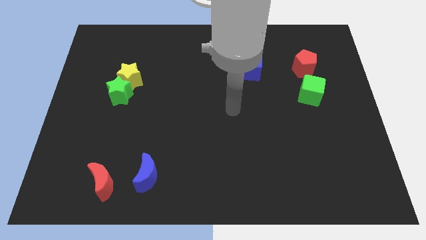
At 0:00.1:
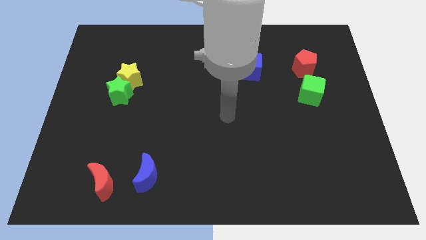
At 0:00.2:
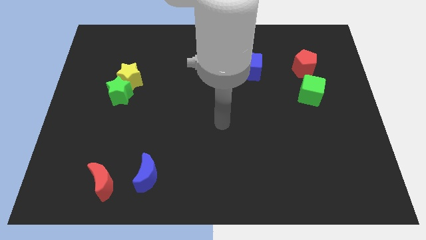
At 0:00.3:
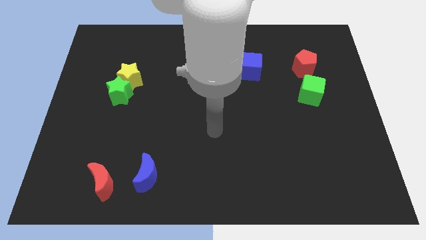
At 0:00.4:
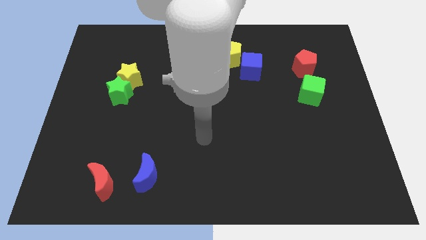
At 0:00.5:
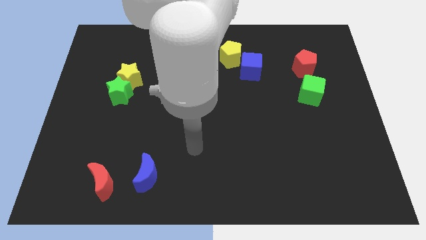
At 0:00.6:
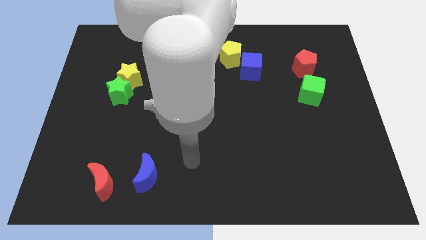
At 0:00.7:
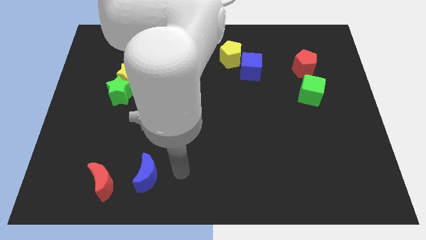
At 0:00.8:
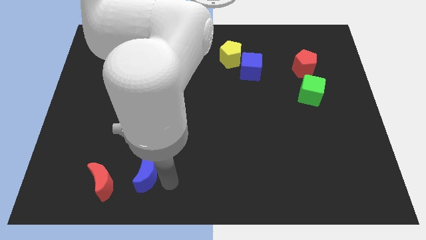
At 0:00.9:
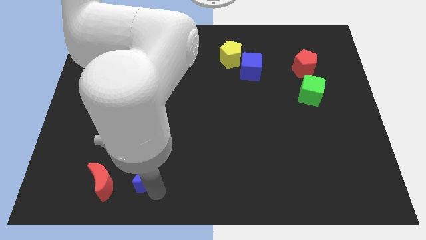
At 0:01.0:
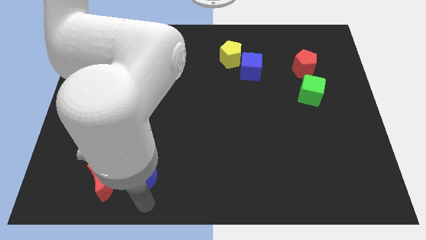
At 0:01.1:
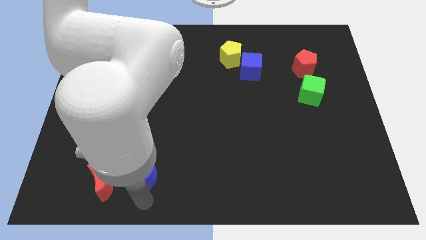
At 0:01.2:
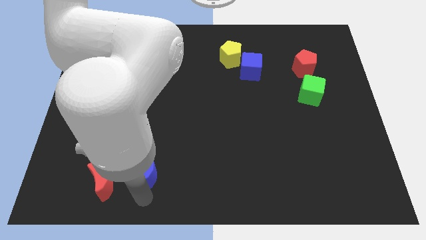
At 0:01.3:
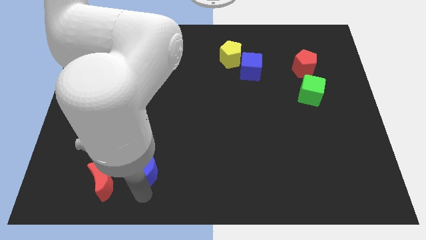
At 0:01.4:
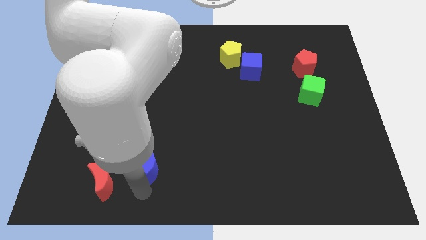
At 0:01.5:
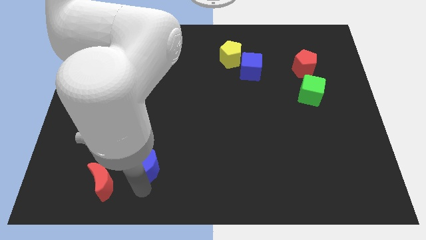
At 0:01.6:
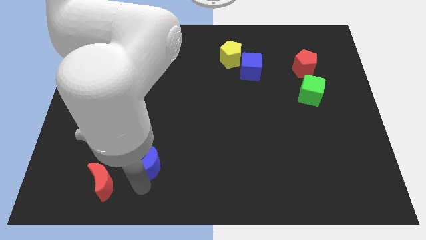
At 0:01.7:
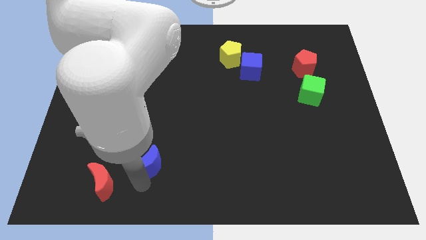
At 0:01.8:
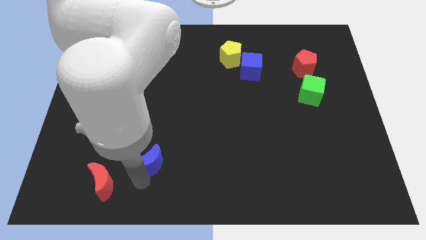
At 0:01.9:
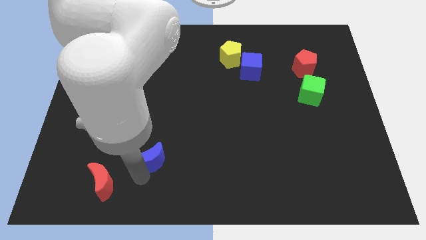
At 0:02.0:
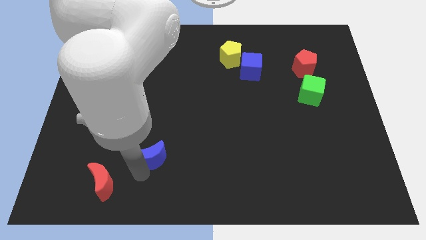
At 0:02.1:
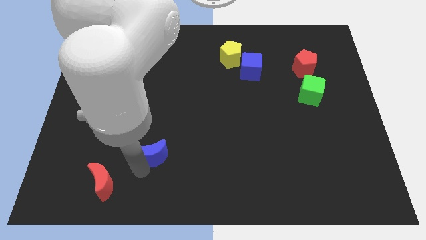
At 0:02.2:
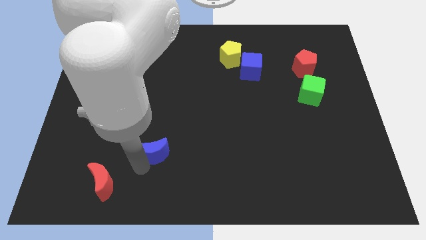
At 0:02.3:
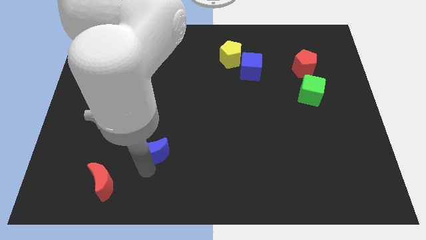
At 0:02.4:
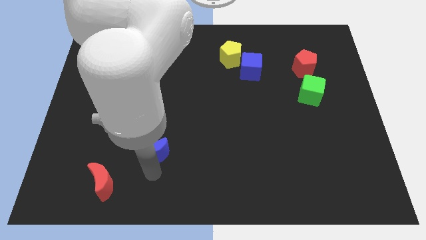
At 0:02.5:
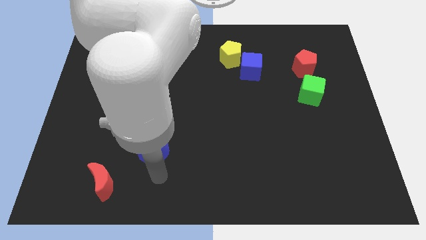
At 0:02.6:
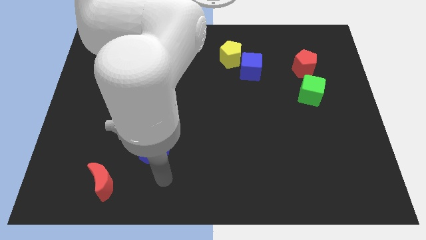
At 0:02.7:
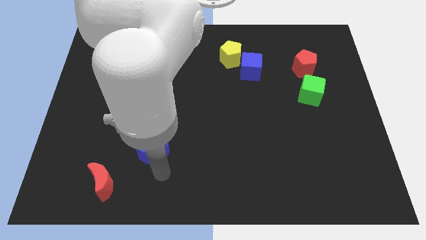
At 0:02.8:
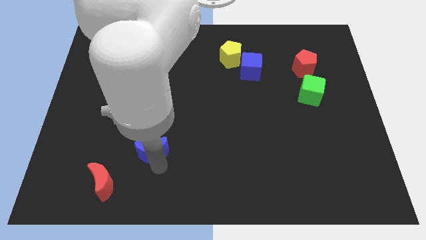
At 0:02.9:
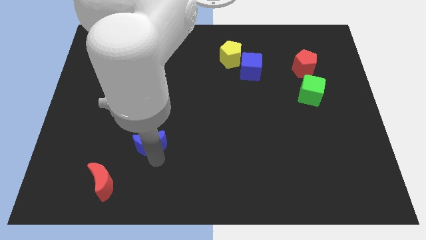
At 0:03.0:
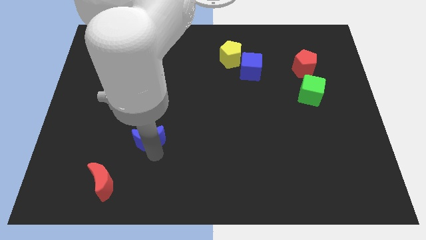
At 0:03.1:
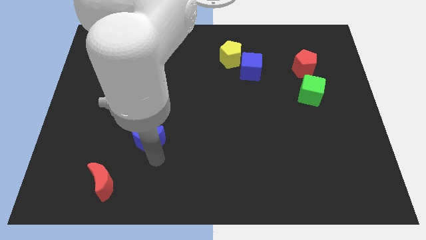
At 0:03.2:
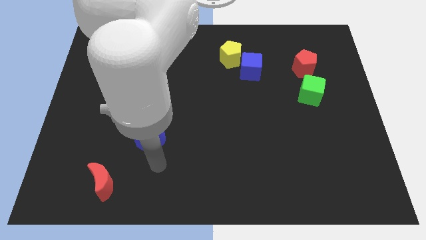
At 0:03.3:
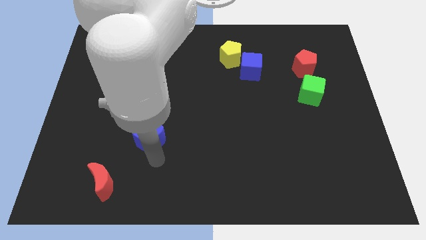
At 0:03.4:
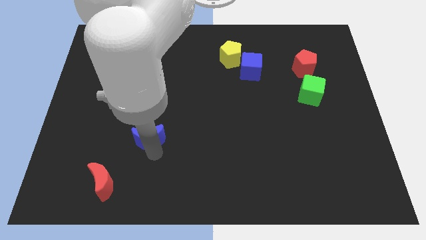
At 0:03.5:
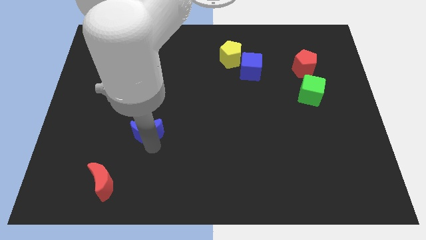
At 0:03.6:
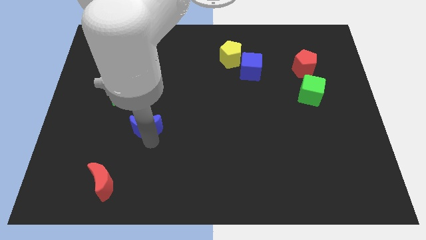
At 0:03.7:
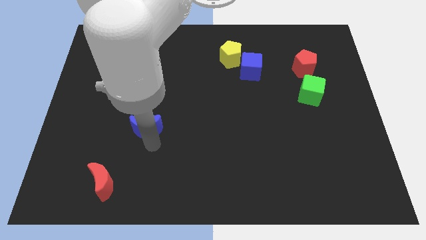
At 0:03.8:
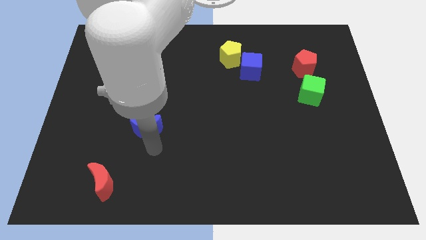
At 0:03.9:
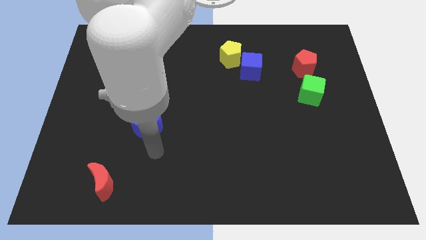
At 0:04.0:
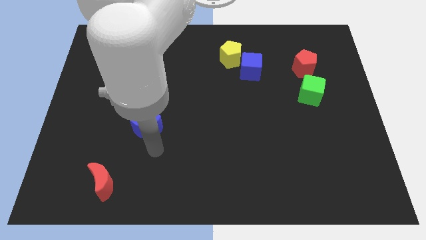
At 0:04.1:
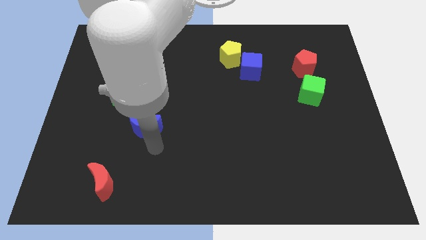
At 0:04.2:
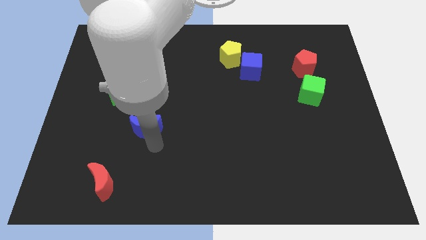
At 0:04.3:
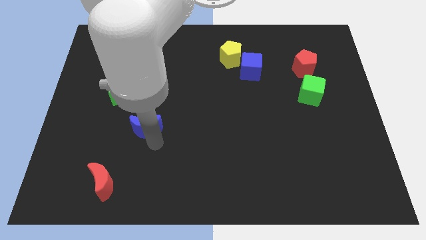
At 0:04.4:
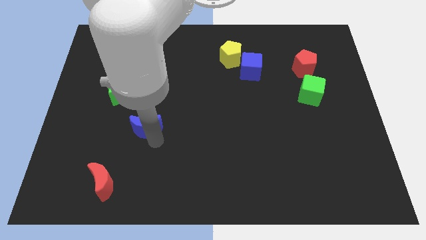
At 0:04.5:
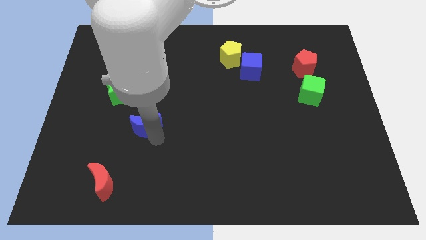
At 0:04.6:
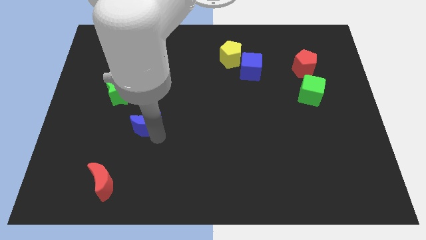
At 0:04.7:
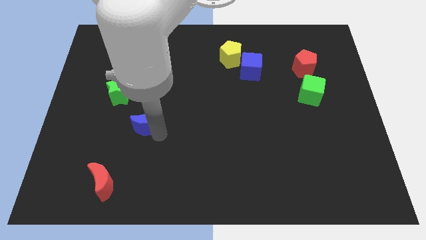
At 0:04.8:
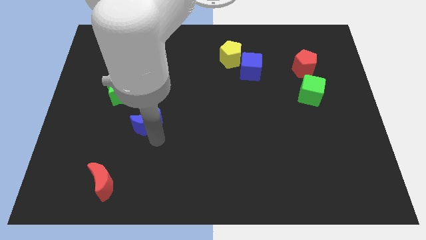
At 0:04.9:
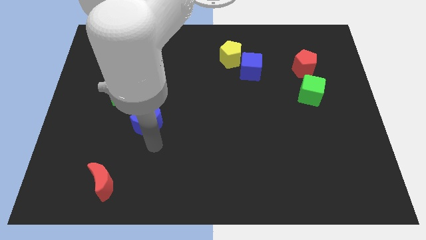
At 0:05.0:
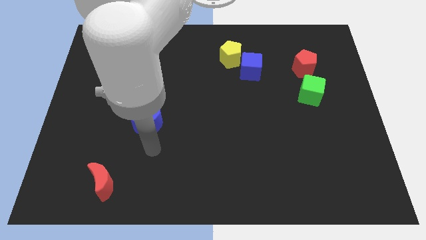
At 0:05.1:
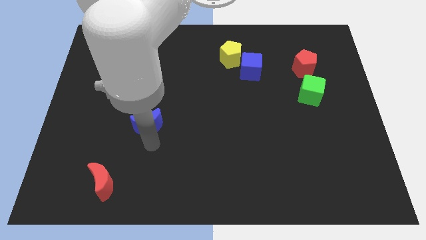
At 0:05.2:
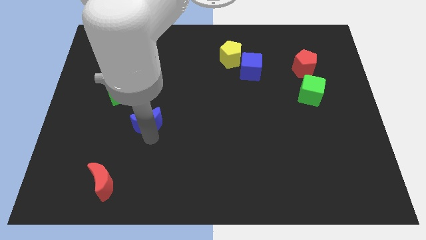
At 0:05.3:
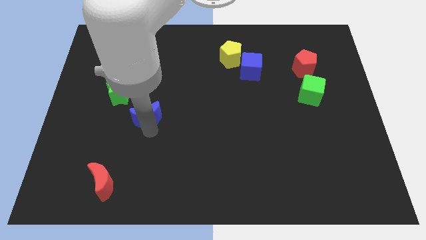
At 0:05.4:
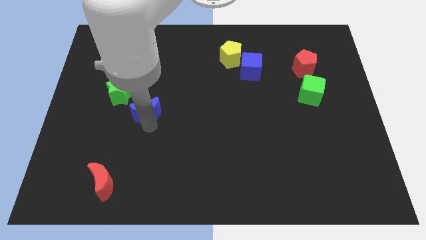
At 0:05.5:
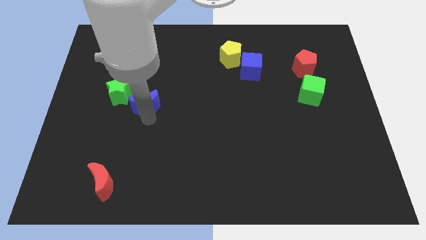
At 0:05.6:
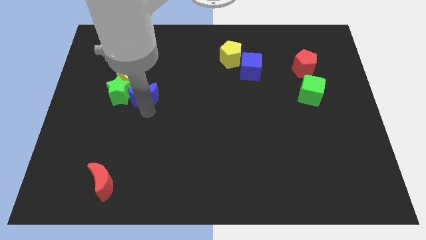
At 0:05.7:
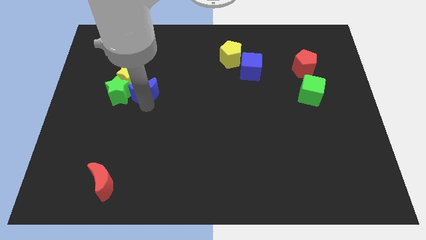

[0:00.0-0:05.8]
push the blue moon diagonally up and to the right of the green star

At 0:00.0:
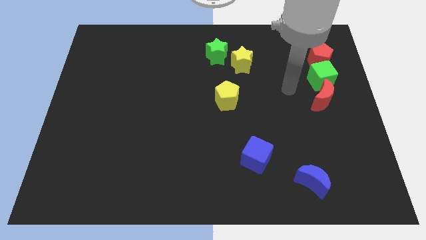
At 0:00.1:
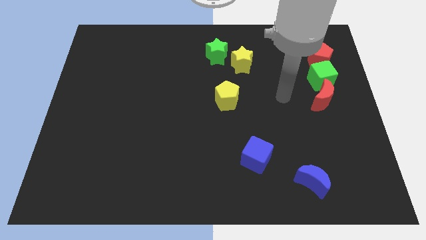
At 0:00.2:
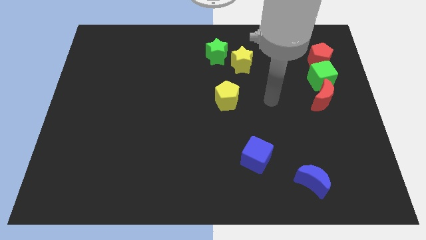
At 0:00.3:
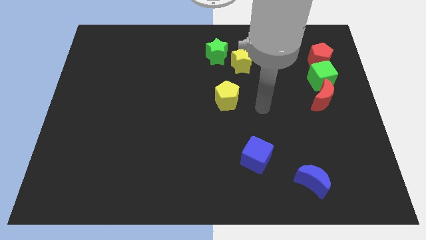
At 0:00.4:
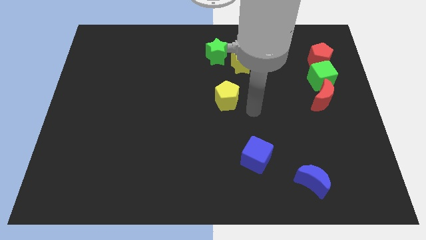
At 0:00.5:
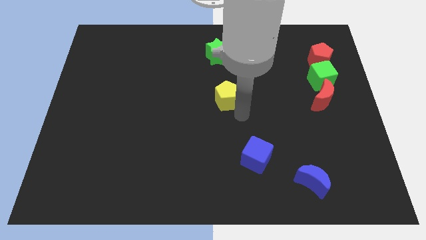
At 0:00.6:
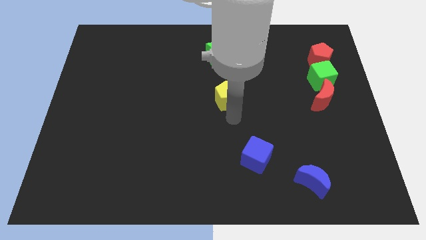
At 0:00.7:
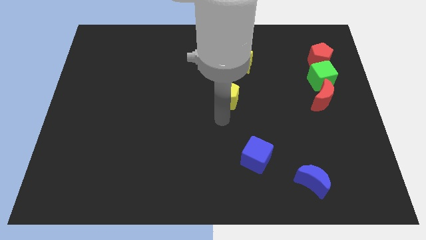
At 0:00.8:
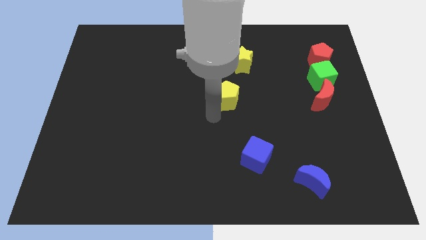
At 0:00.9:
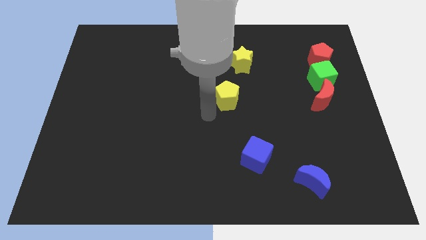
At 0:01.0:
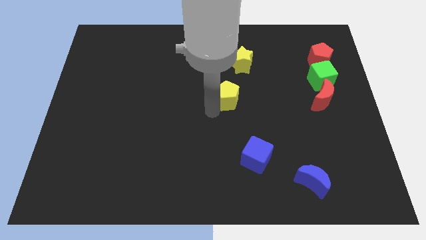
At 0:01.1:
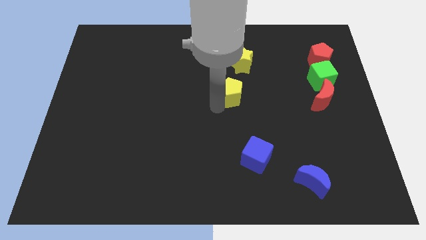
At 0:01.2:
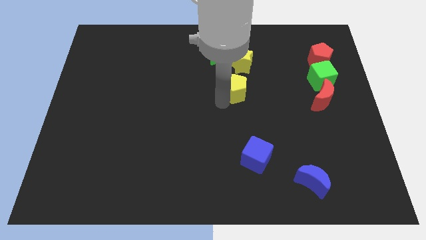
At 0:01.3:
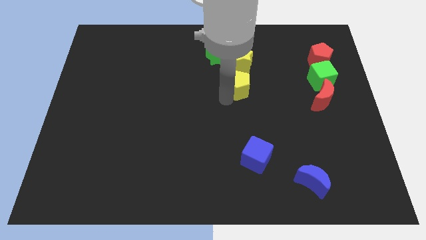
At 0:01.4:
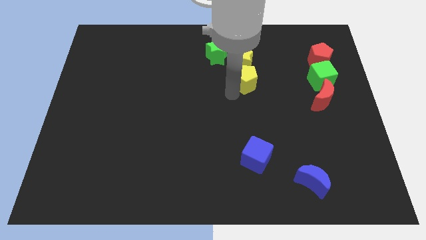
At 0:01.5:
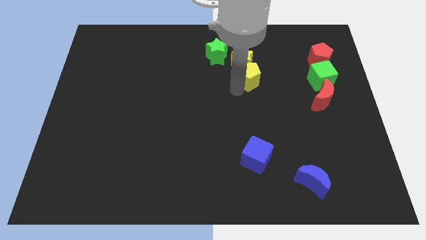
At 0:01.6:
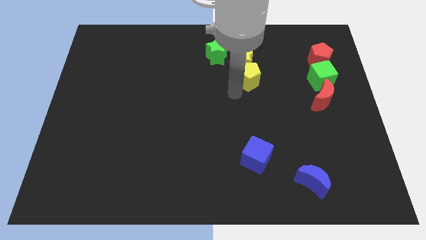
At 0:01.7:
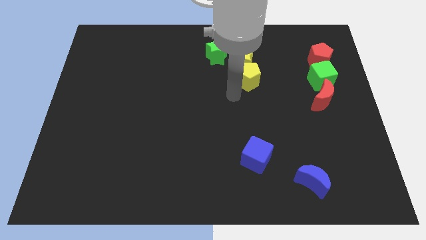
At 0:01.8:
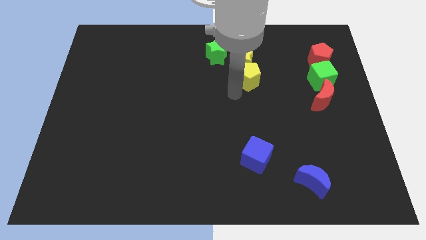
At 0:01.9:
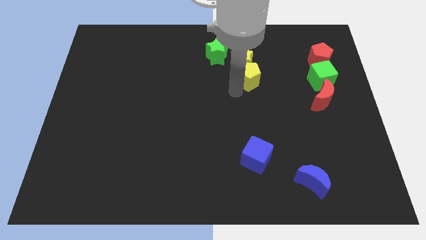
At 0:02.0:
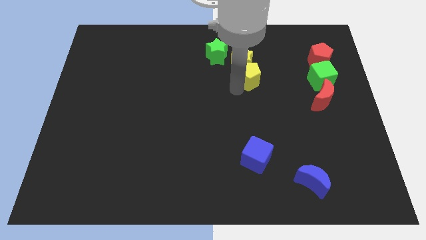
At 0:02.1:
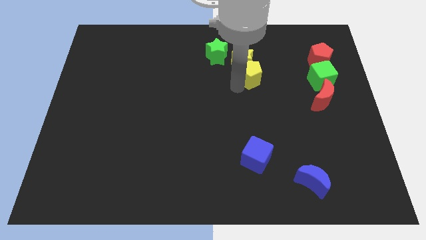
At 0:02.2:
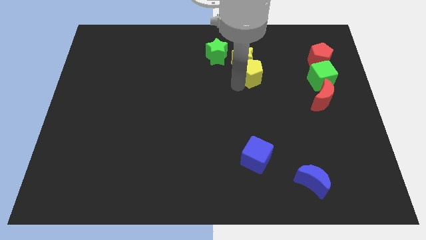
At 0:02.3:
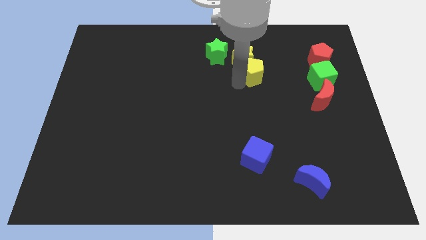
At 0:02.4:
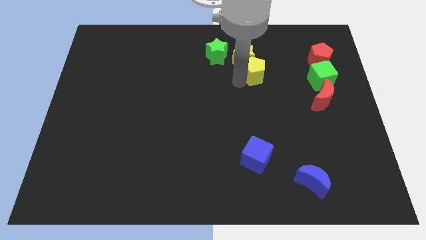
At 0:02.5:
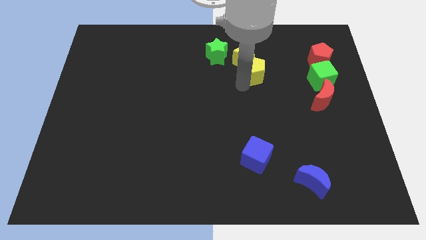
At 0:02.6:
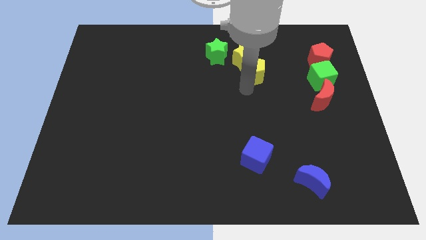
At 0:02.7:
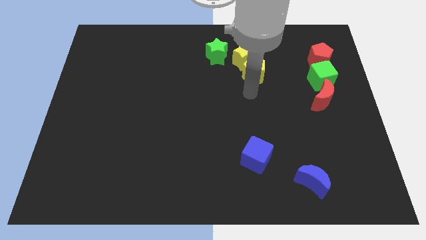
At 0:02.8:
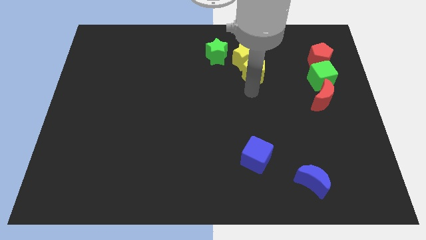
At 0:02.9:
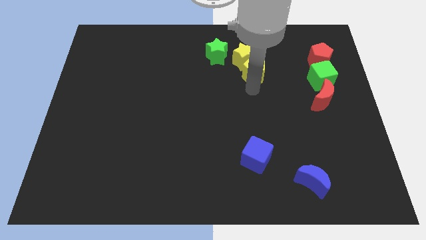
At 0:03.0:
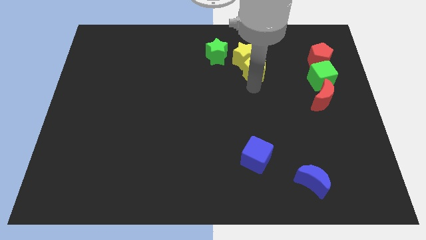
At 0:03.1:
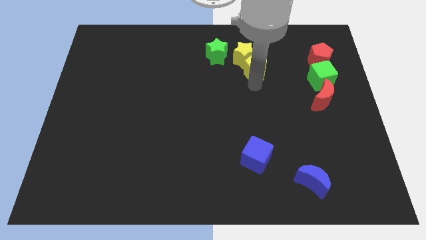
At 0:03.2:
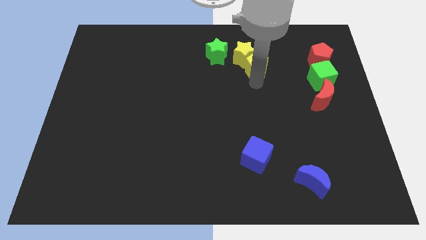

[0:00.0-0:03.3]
push the yellow pentagon to the right of the green star
